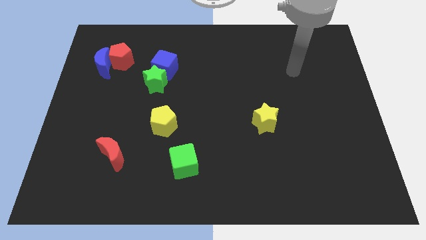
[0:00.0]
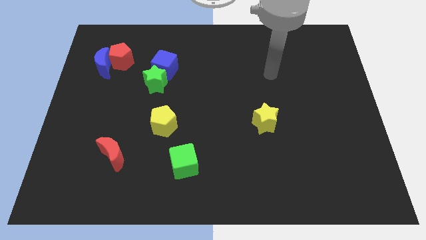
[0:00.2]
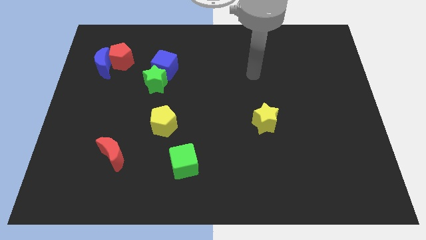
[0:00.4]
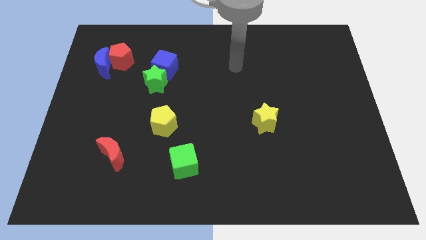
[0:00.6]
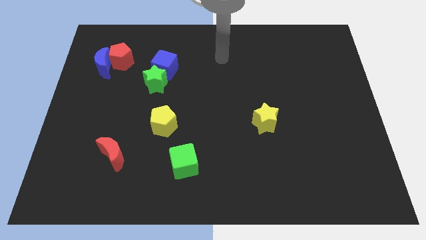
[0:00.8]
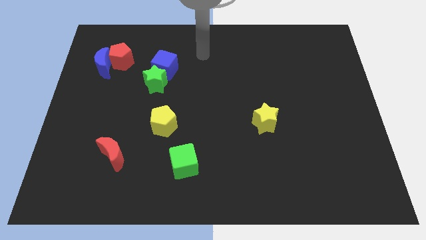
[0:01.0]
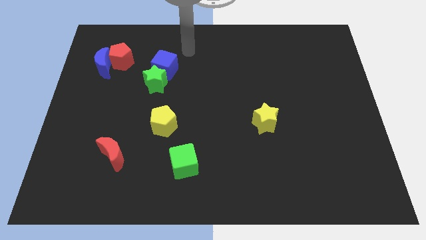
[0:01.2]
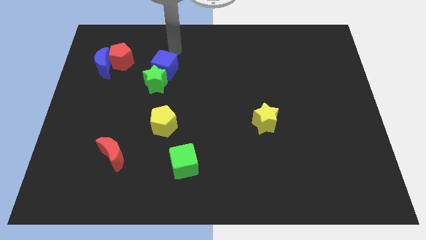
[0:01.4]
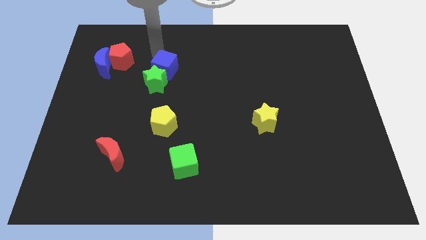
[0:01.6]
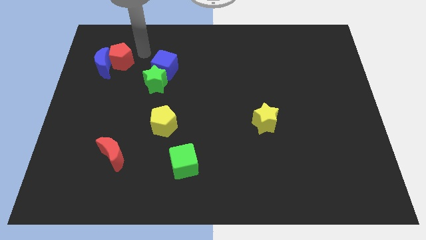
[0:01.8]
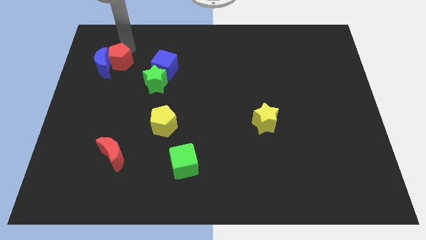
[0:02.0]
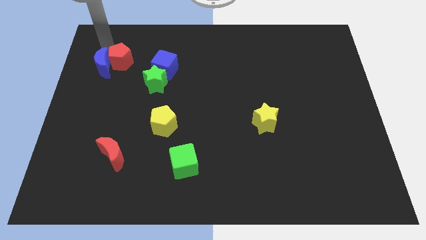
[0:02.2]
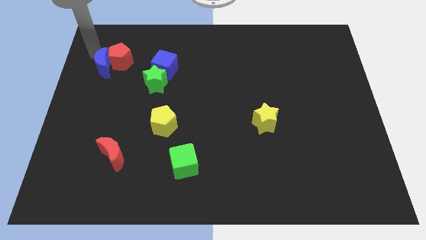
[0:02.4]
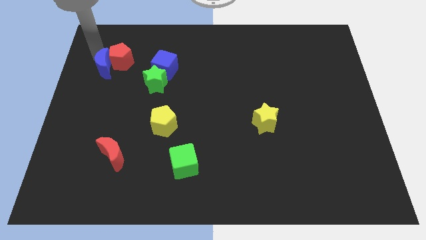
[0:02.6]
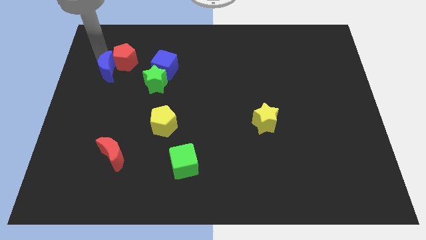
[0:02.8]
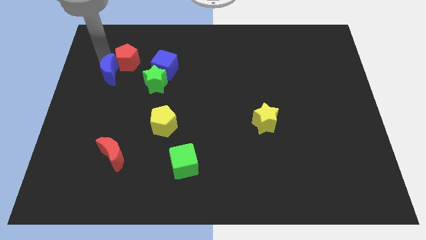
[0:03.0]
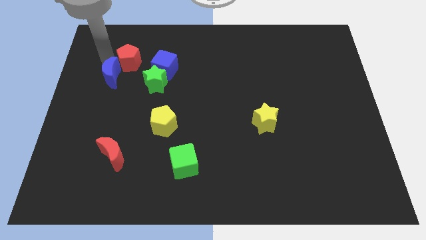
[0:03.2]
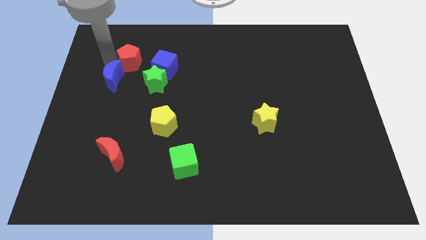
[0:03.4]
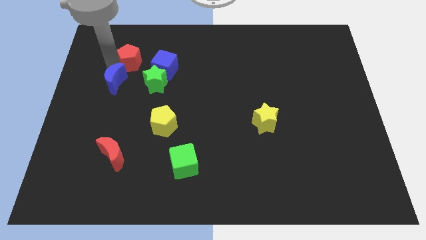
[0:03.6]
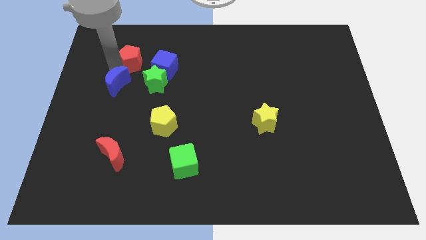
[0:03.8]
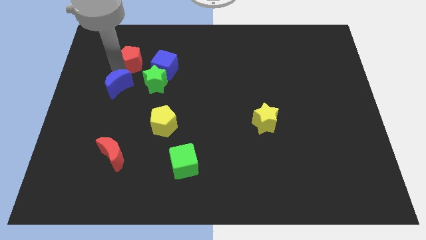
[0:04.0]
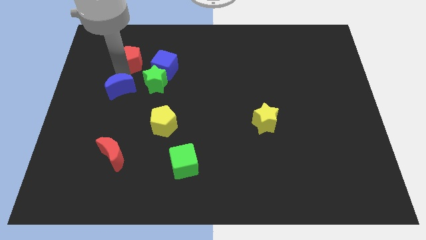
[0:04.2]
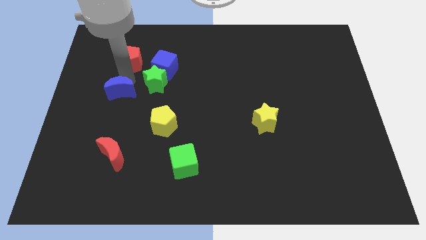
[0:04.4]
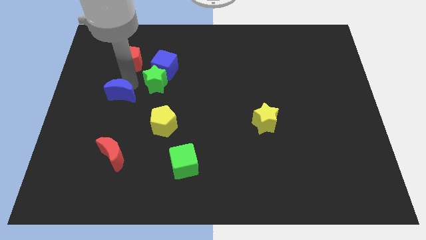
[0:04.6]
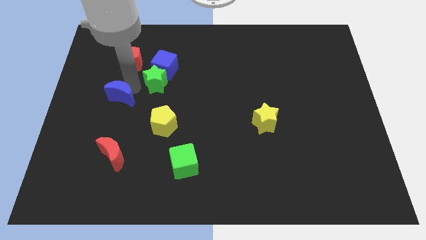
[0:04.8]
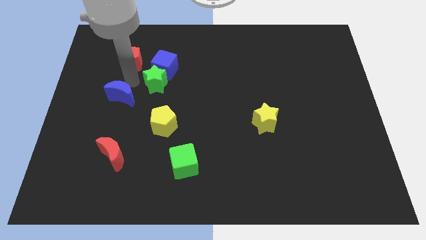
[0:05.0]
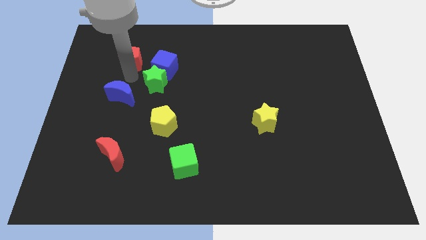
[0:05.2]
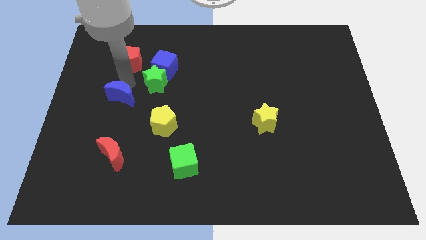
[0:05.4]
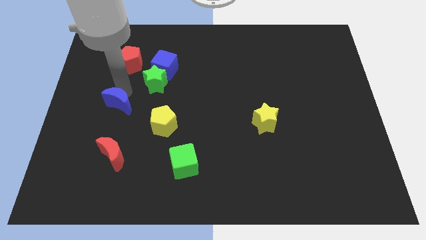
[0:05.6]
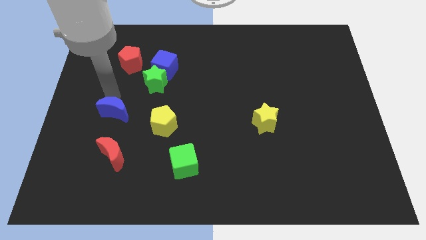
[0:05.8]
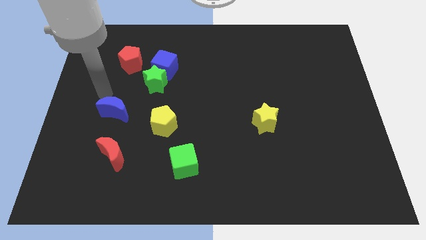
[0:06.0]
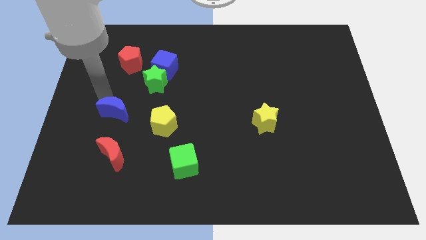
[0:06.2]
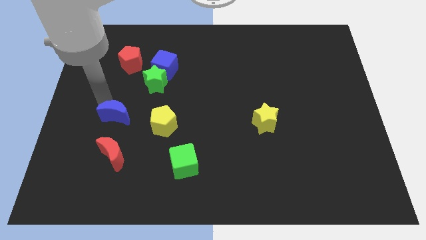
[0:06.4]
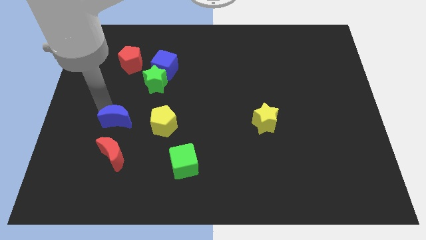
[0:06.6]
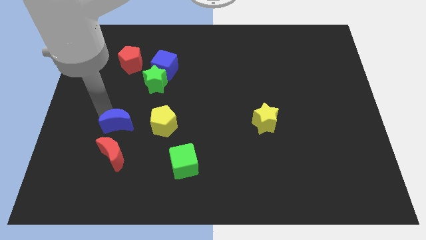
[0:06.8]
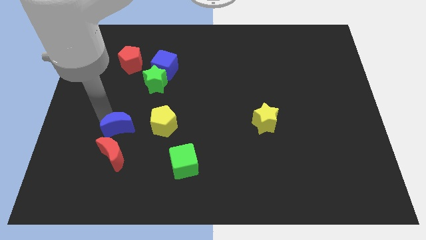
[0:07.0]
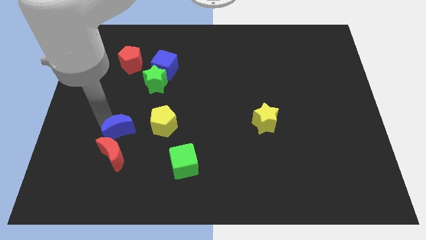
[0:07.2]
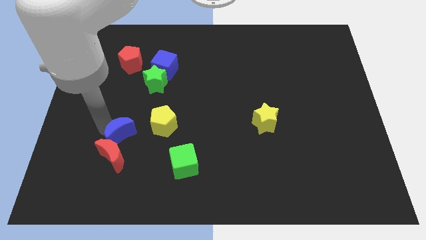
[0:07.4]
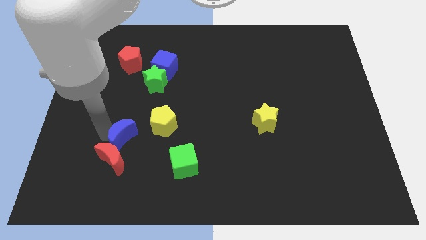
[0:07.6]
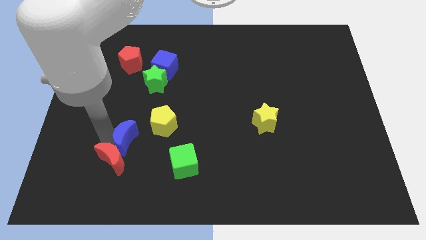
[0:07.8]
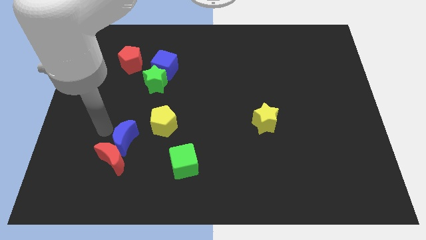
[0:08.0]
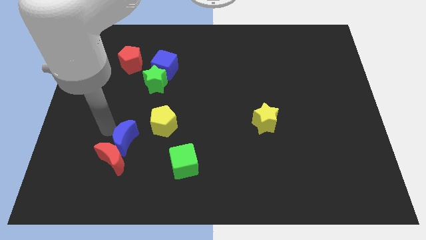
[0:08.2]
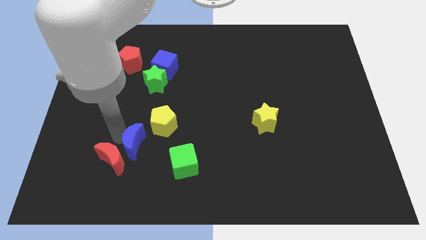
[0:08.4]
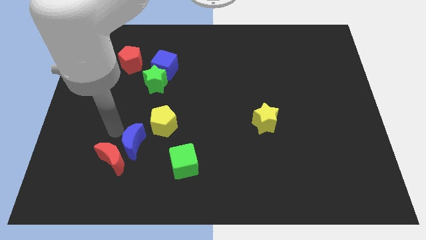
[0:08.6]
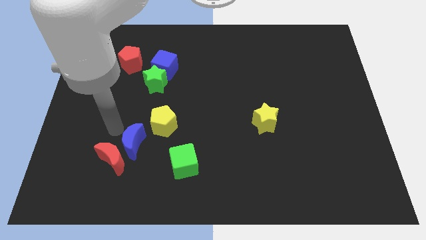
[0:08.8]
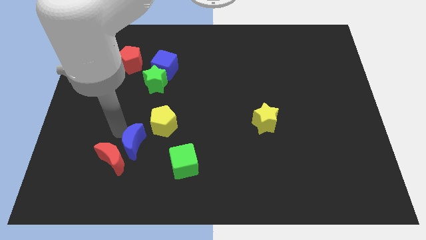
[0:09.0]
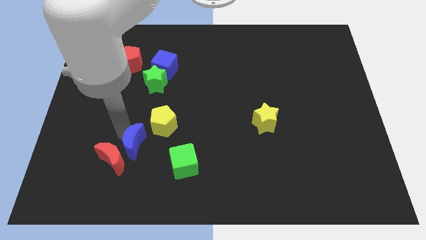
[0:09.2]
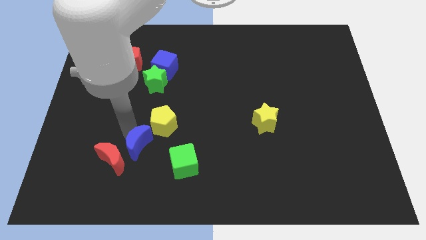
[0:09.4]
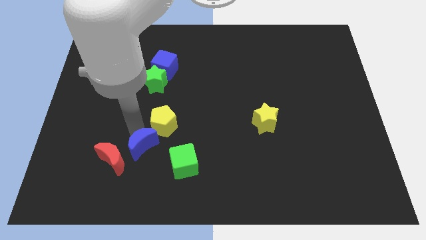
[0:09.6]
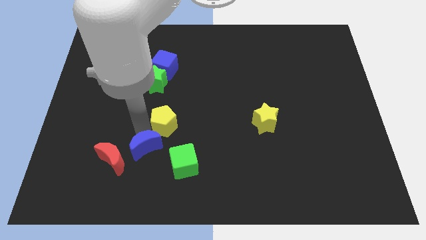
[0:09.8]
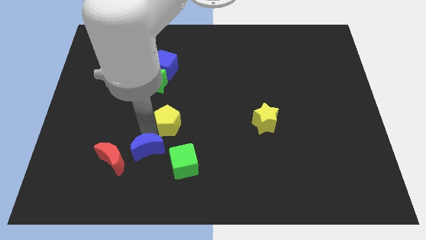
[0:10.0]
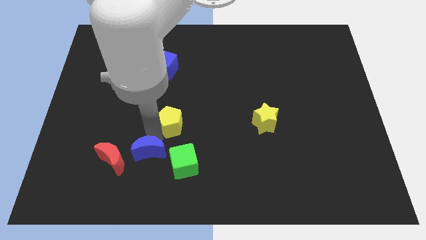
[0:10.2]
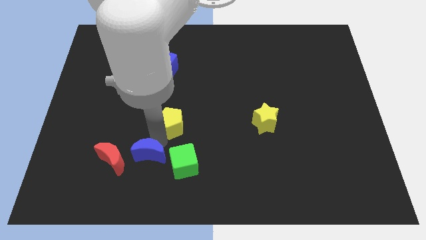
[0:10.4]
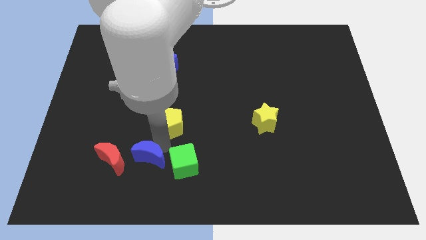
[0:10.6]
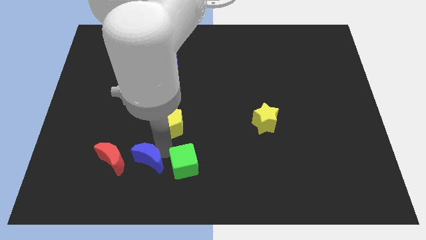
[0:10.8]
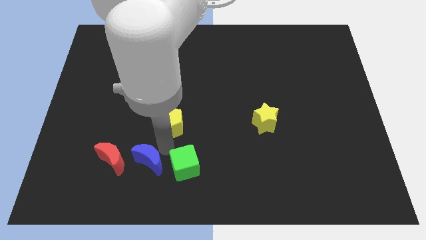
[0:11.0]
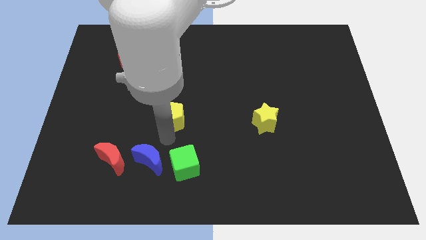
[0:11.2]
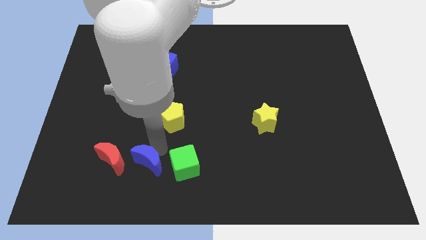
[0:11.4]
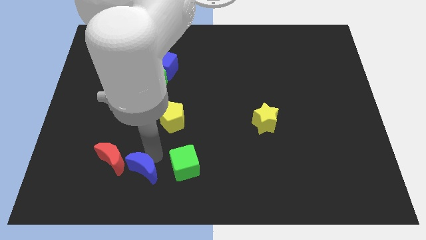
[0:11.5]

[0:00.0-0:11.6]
push the blue moon diagonally down and to the right of the red moon
